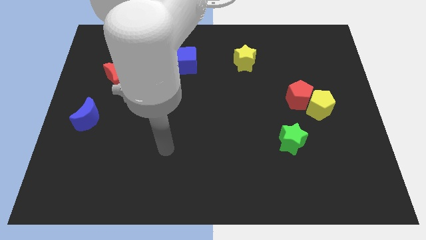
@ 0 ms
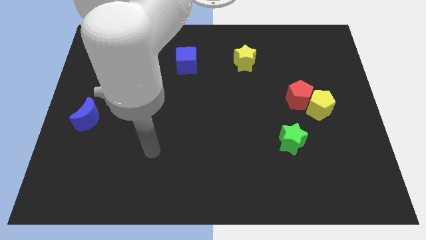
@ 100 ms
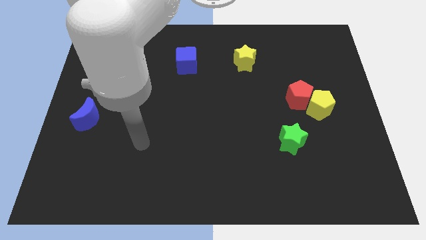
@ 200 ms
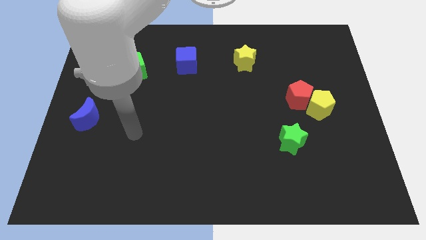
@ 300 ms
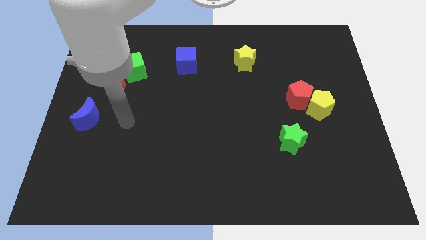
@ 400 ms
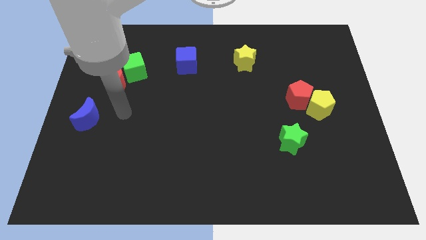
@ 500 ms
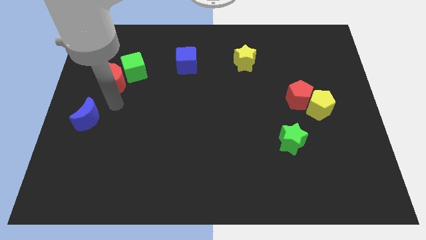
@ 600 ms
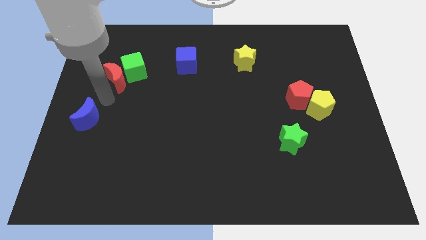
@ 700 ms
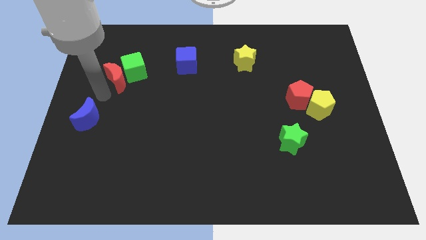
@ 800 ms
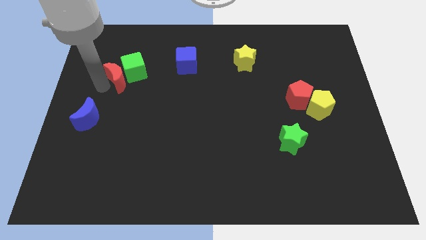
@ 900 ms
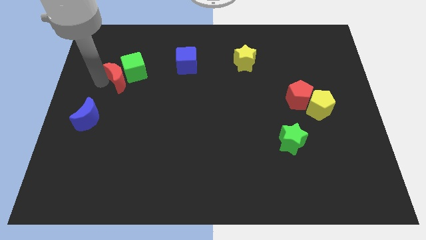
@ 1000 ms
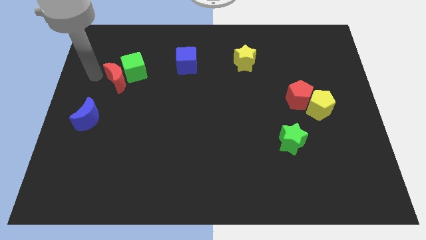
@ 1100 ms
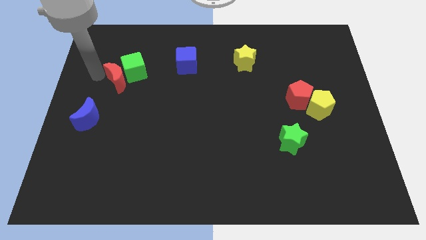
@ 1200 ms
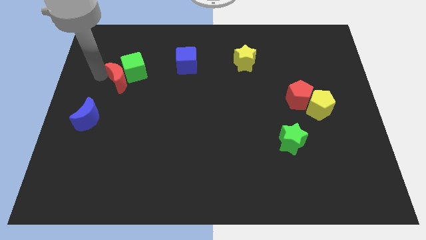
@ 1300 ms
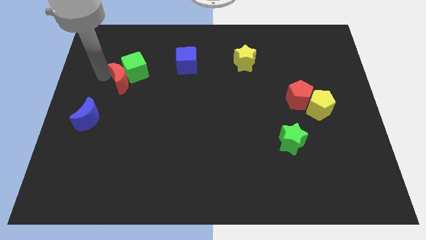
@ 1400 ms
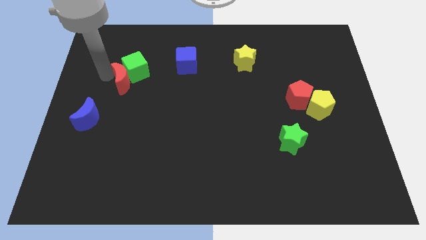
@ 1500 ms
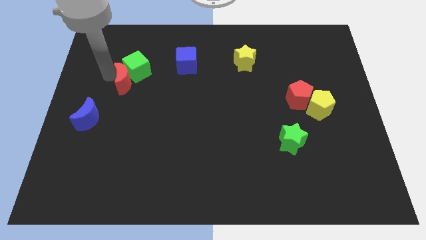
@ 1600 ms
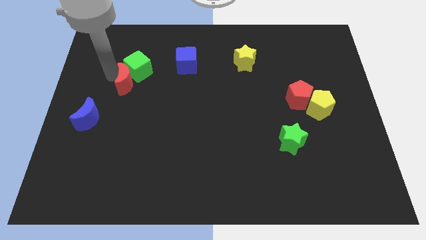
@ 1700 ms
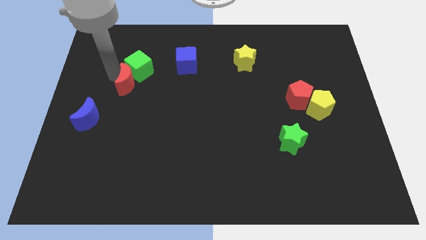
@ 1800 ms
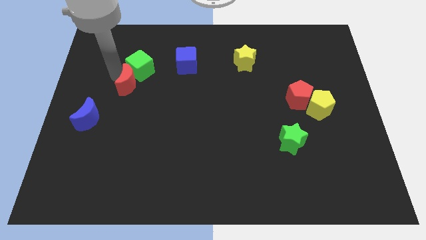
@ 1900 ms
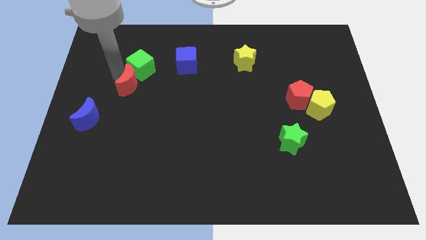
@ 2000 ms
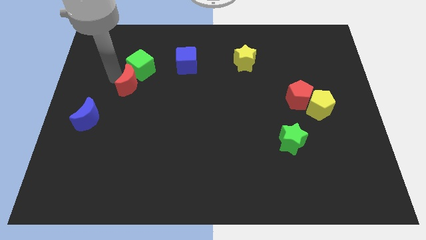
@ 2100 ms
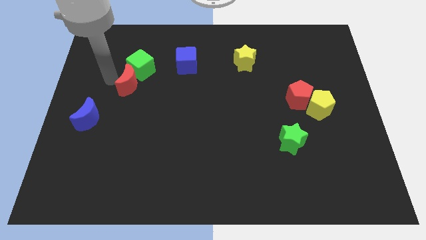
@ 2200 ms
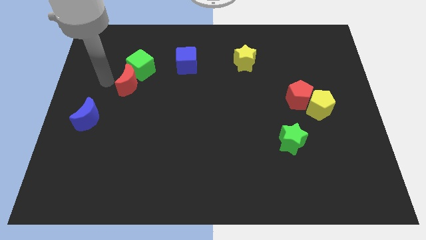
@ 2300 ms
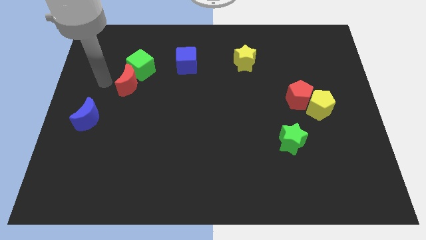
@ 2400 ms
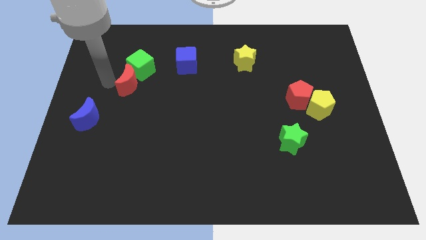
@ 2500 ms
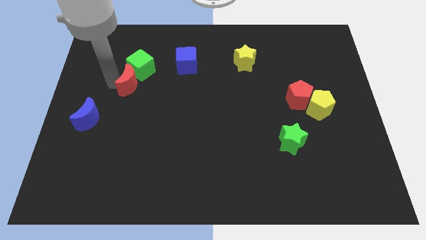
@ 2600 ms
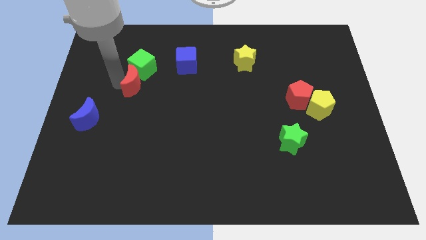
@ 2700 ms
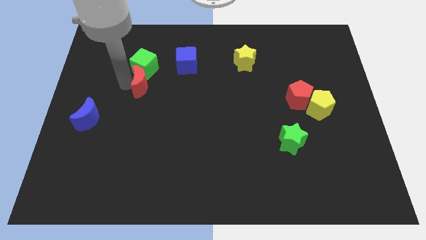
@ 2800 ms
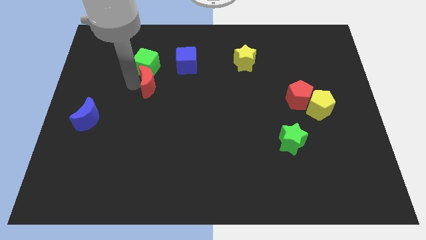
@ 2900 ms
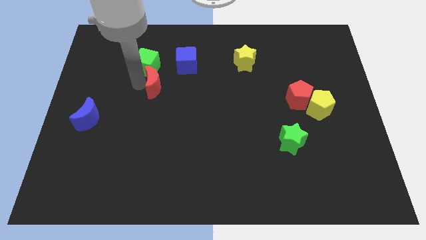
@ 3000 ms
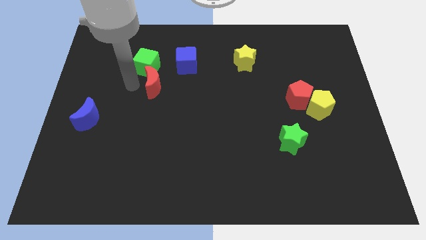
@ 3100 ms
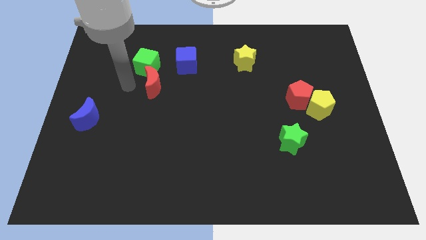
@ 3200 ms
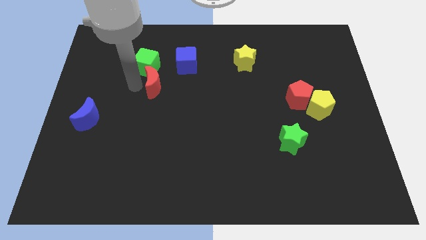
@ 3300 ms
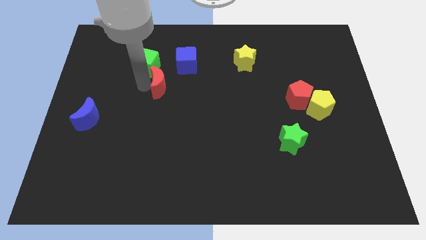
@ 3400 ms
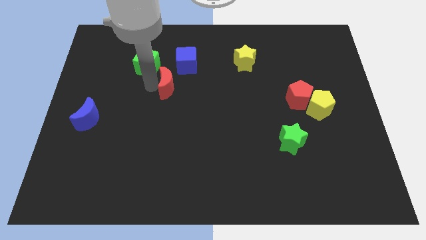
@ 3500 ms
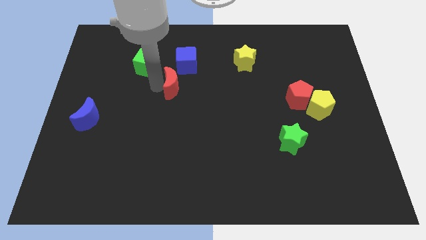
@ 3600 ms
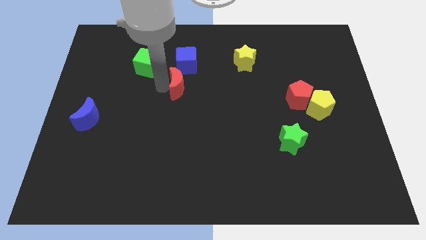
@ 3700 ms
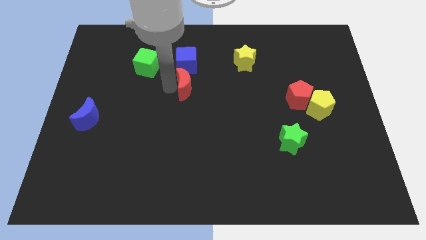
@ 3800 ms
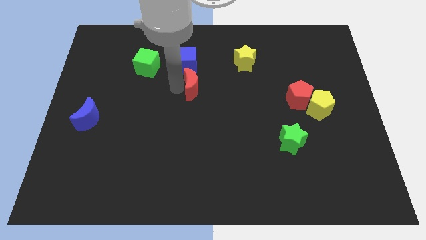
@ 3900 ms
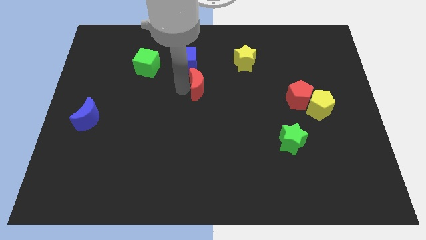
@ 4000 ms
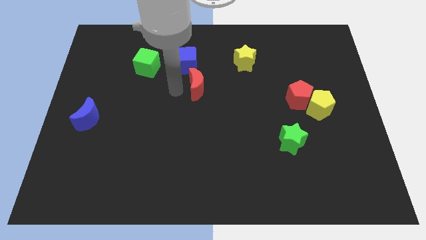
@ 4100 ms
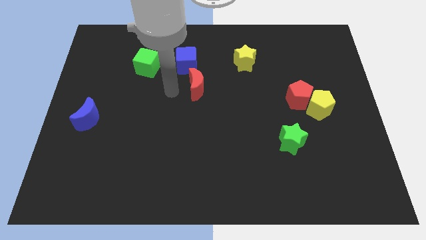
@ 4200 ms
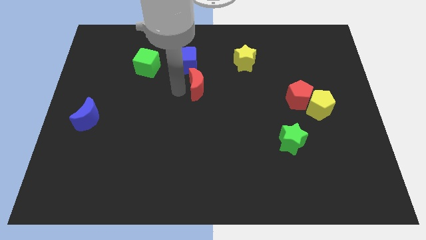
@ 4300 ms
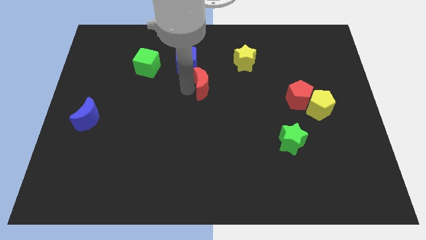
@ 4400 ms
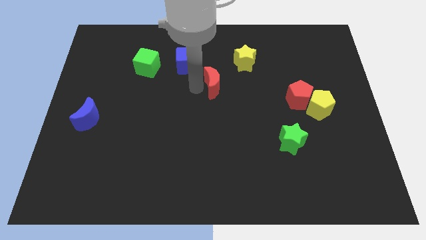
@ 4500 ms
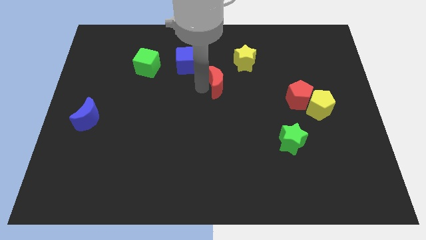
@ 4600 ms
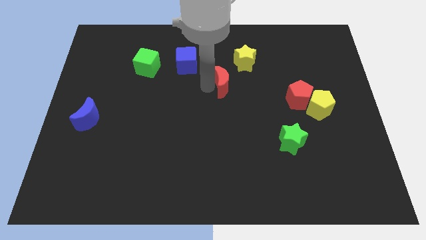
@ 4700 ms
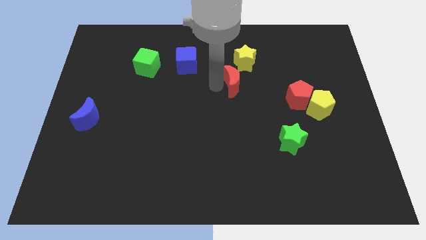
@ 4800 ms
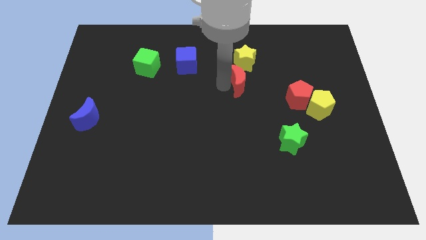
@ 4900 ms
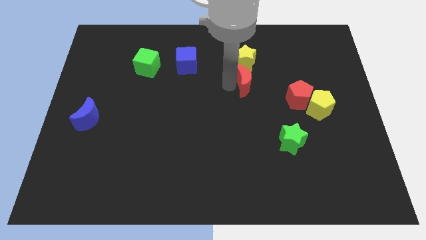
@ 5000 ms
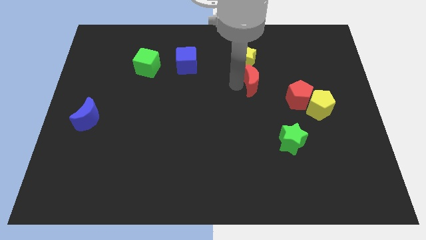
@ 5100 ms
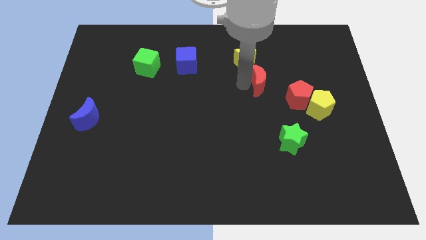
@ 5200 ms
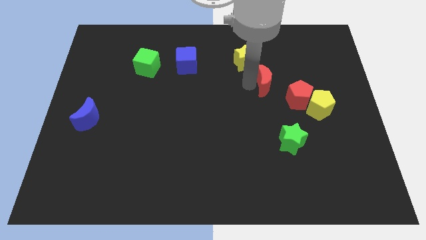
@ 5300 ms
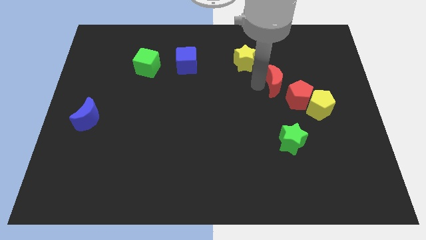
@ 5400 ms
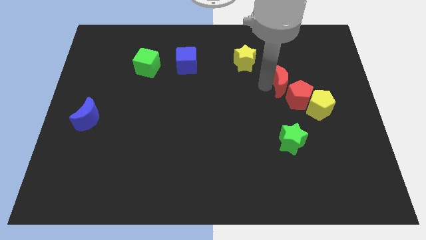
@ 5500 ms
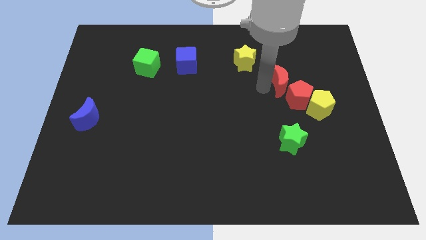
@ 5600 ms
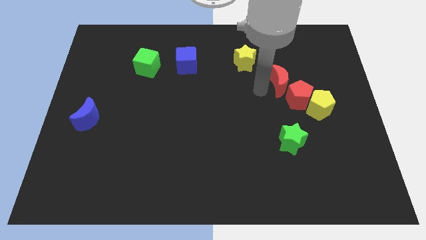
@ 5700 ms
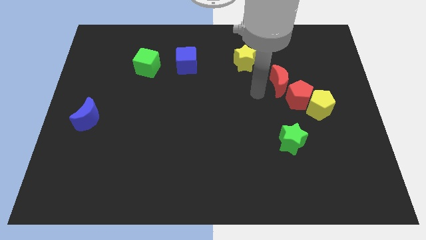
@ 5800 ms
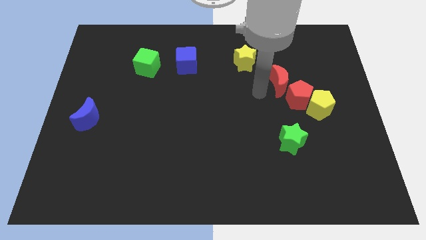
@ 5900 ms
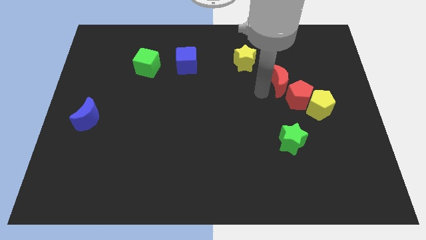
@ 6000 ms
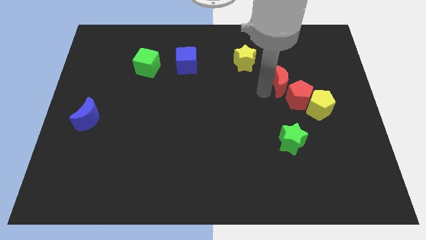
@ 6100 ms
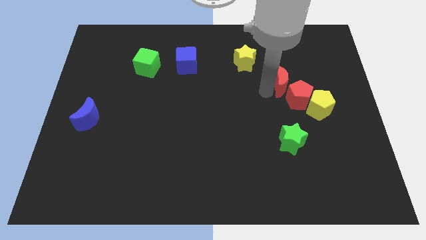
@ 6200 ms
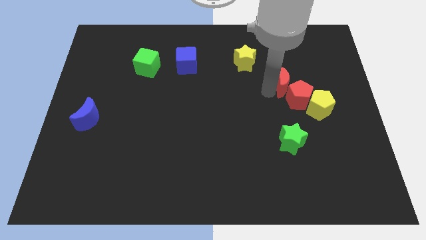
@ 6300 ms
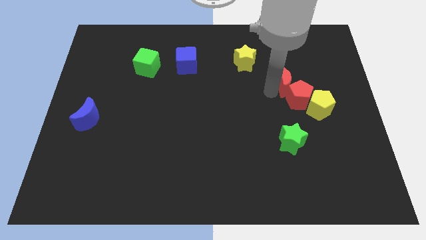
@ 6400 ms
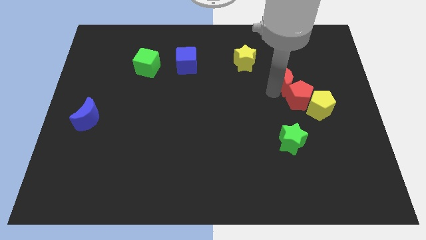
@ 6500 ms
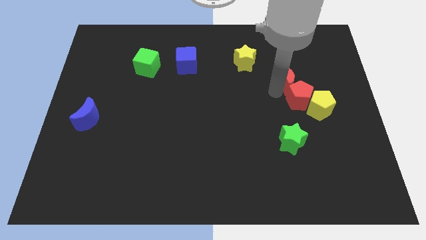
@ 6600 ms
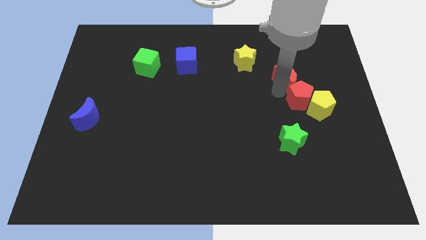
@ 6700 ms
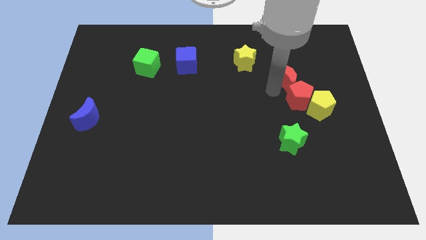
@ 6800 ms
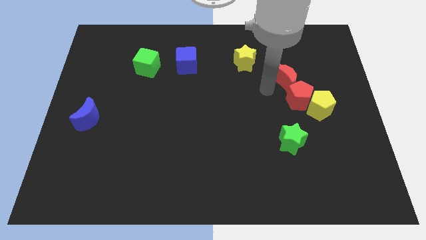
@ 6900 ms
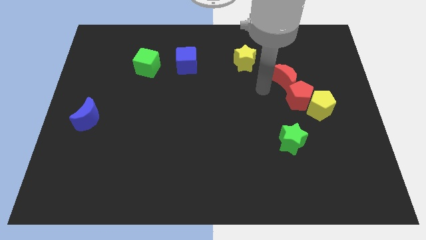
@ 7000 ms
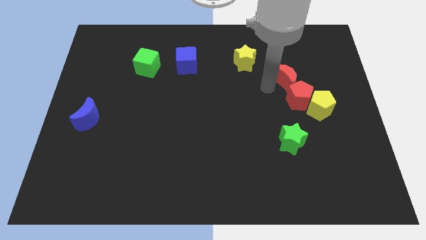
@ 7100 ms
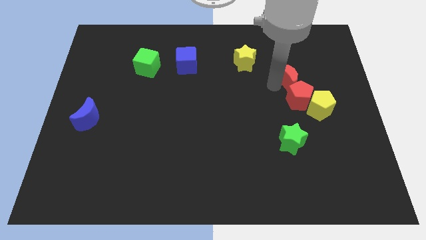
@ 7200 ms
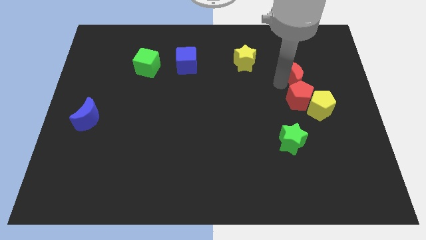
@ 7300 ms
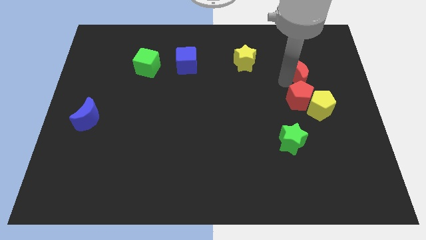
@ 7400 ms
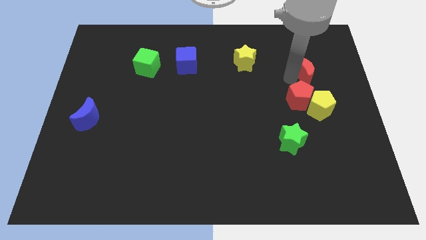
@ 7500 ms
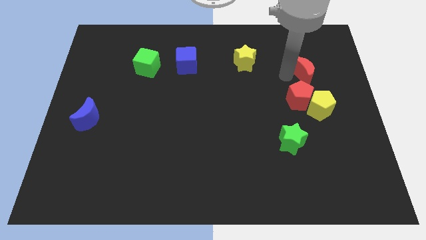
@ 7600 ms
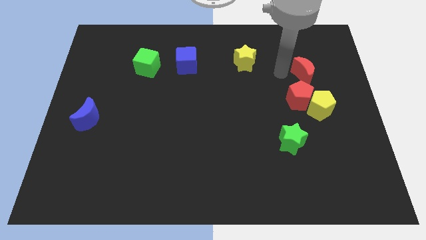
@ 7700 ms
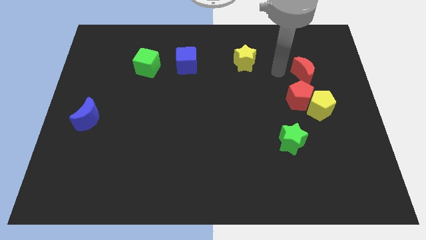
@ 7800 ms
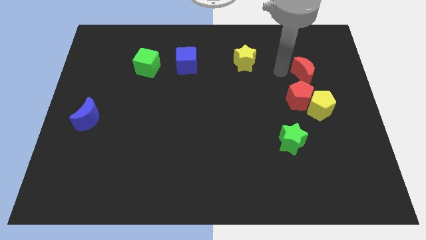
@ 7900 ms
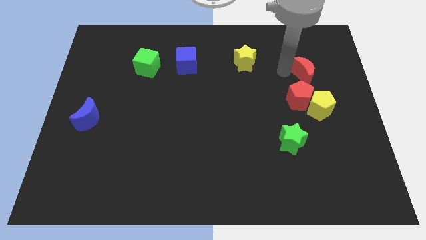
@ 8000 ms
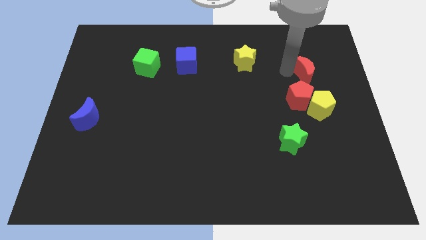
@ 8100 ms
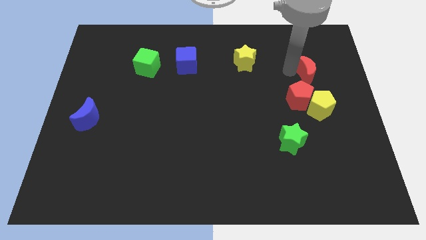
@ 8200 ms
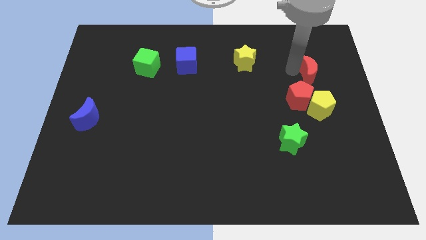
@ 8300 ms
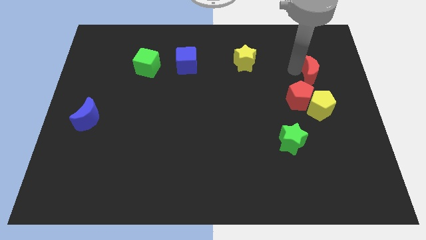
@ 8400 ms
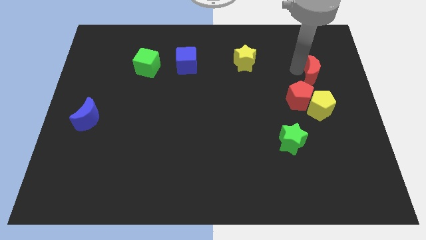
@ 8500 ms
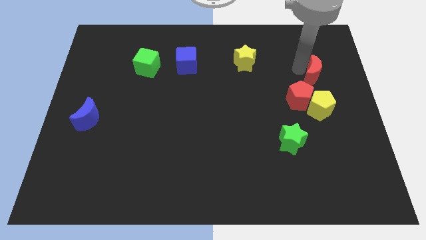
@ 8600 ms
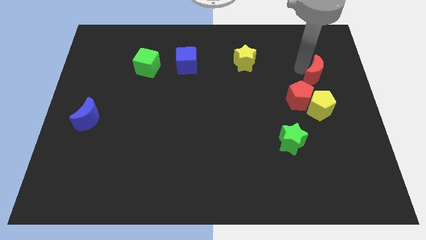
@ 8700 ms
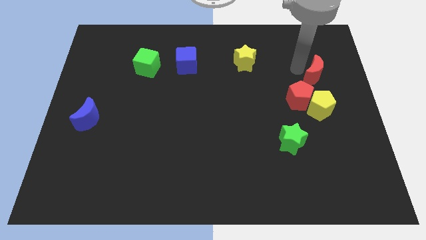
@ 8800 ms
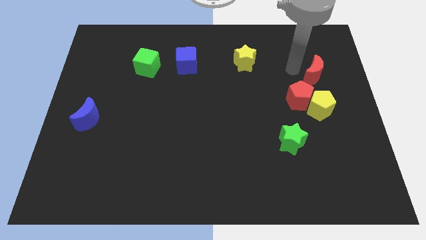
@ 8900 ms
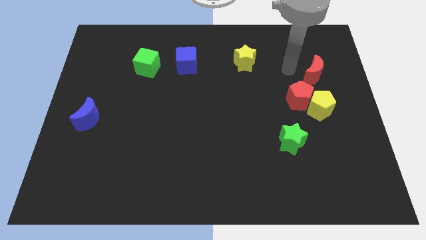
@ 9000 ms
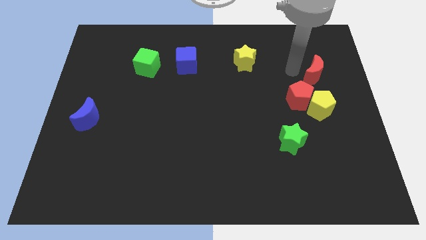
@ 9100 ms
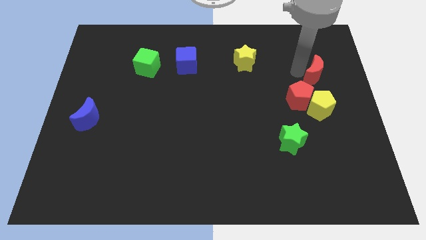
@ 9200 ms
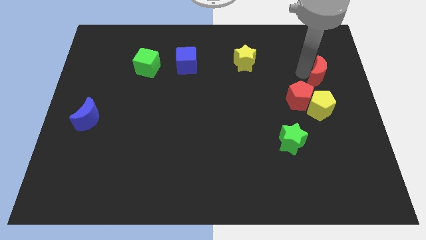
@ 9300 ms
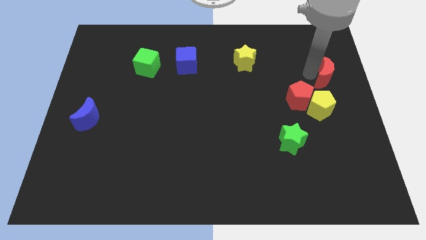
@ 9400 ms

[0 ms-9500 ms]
put the red moon to the right side
